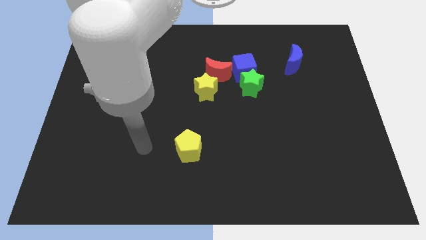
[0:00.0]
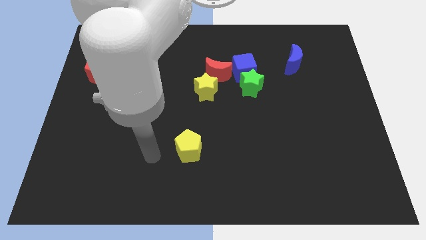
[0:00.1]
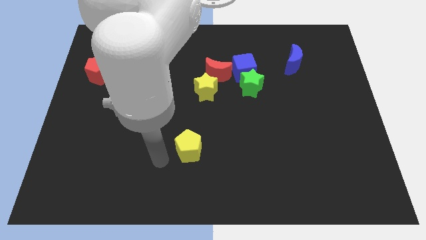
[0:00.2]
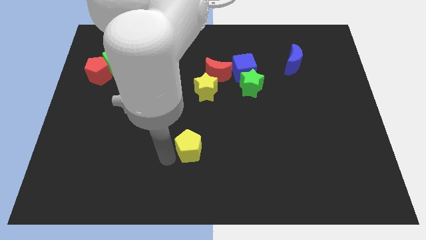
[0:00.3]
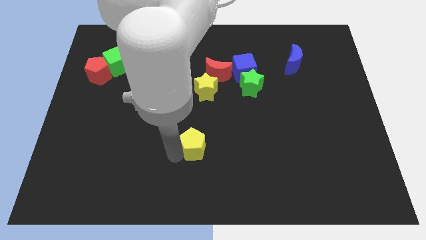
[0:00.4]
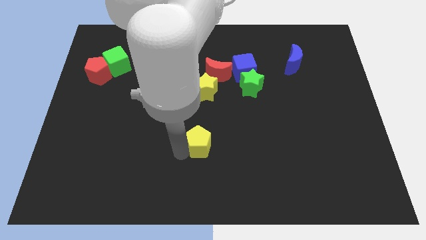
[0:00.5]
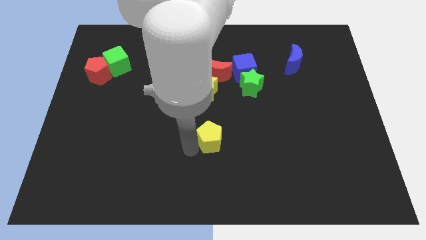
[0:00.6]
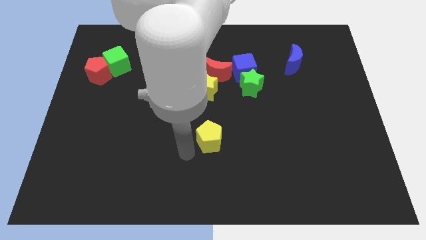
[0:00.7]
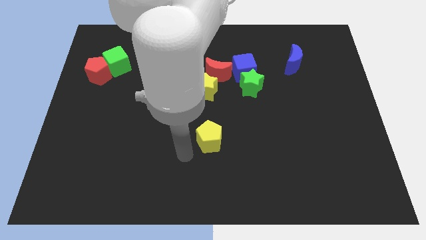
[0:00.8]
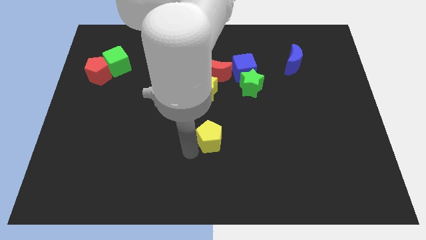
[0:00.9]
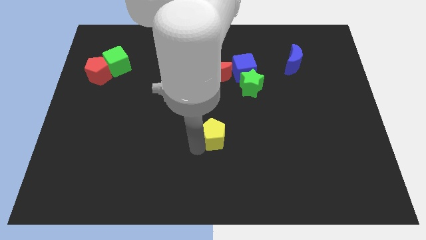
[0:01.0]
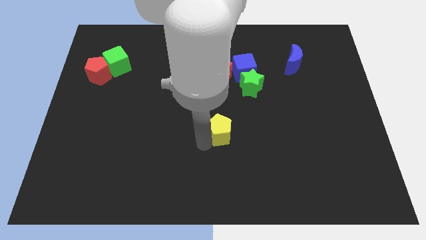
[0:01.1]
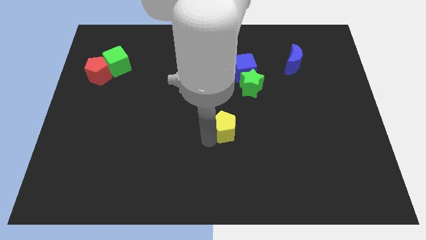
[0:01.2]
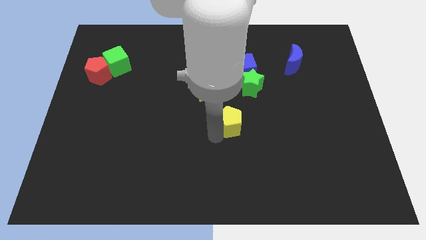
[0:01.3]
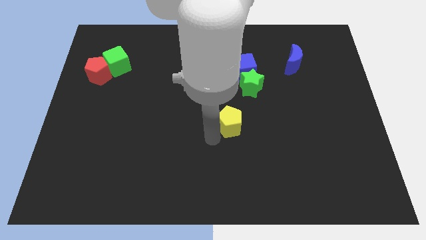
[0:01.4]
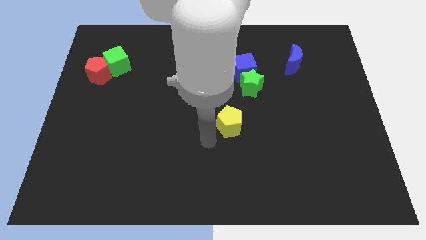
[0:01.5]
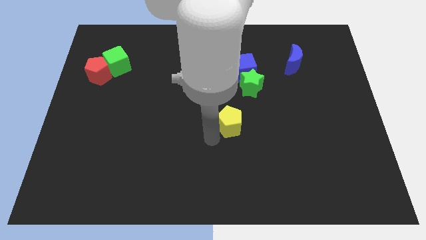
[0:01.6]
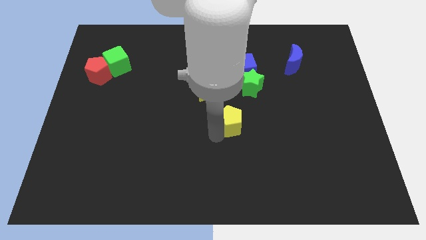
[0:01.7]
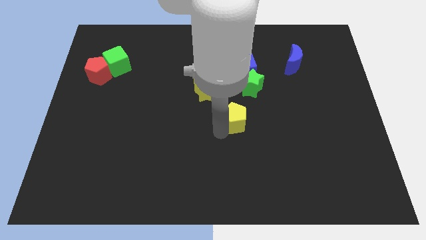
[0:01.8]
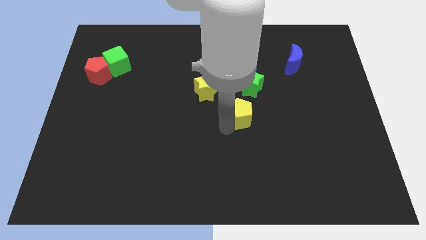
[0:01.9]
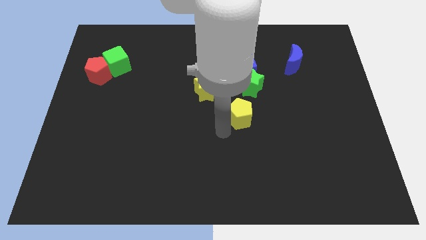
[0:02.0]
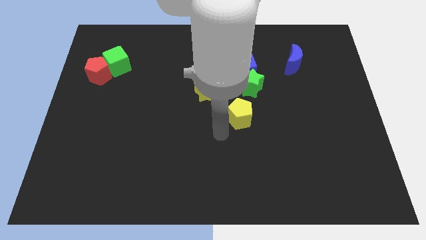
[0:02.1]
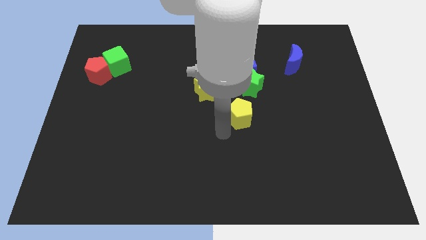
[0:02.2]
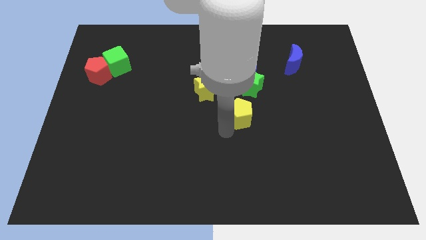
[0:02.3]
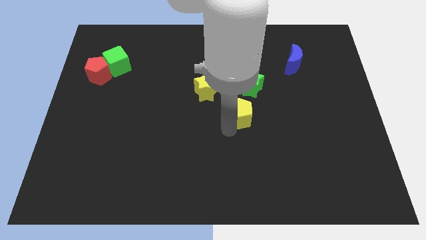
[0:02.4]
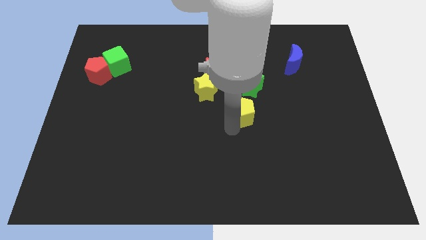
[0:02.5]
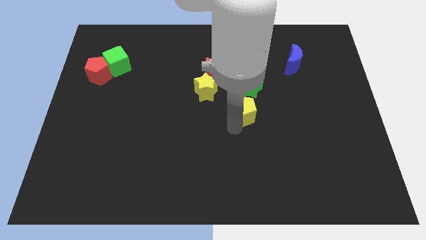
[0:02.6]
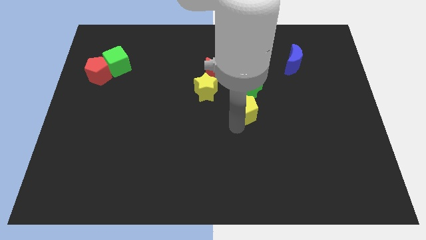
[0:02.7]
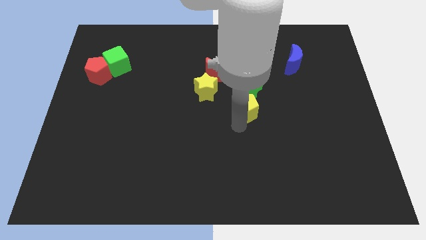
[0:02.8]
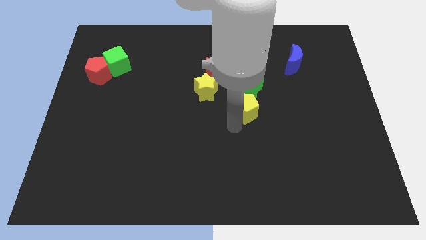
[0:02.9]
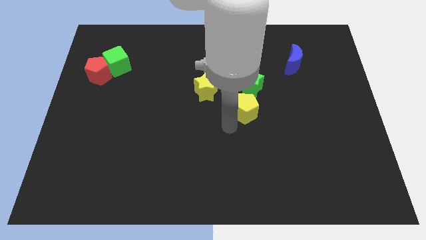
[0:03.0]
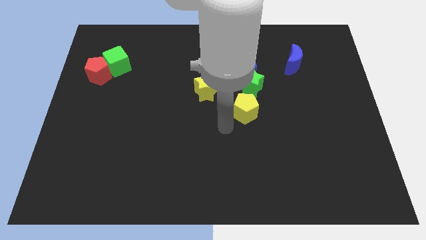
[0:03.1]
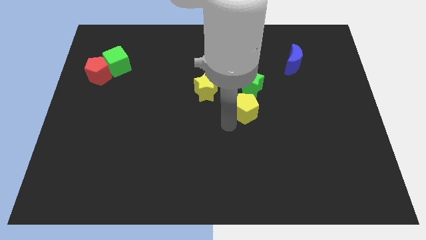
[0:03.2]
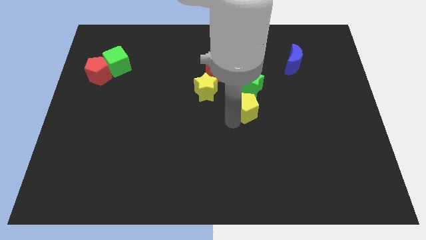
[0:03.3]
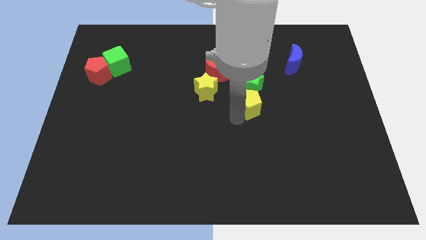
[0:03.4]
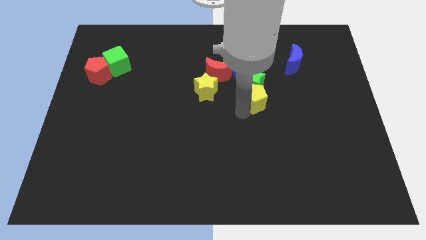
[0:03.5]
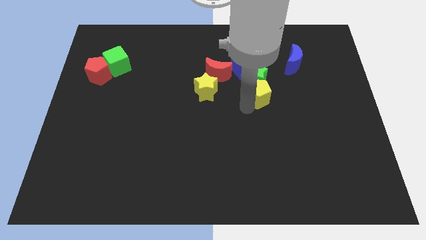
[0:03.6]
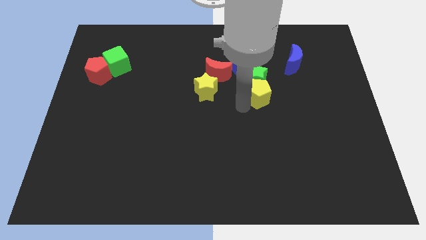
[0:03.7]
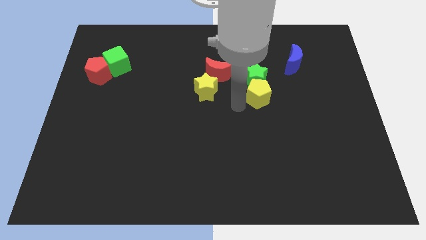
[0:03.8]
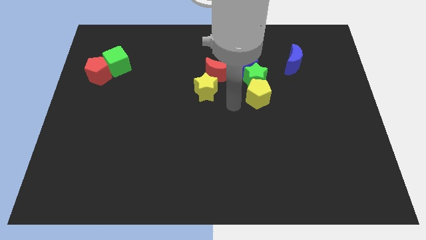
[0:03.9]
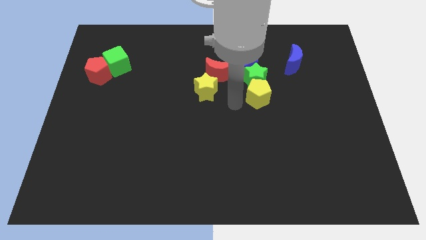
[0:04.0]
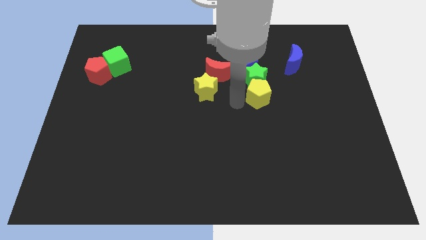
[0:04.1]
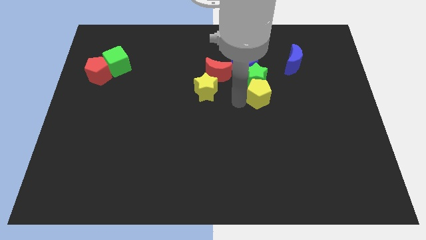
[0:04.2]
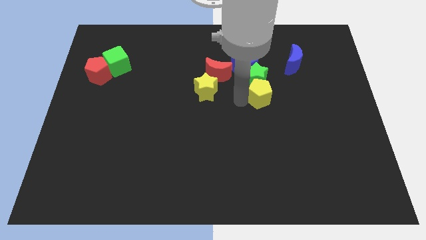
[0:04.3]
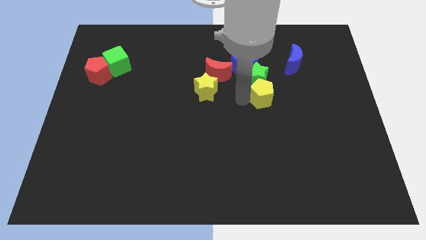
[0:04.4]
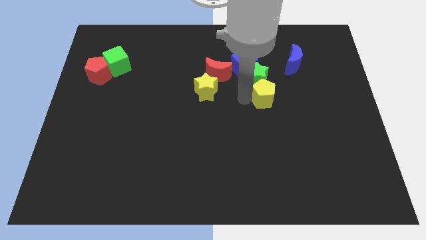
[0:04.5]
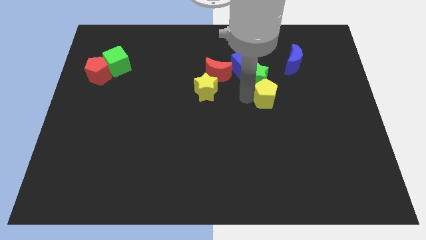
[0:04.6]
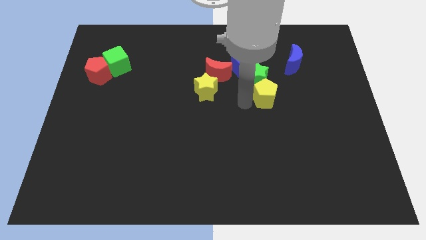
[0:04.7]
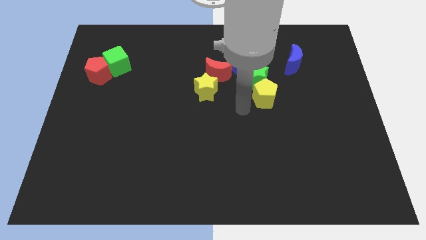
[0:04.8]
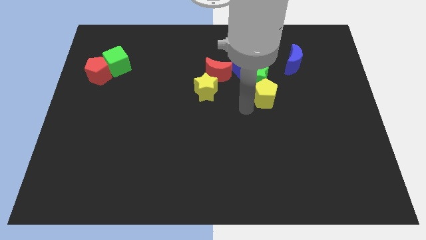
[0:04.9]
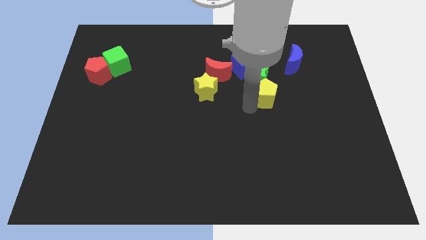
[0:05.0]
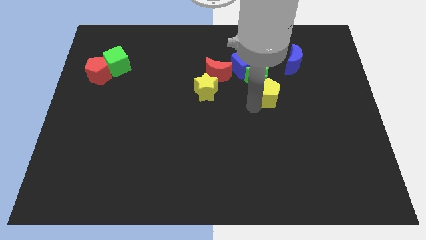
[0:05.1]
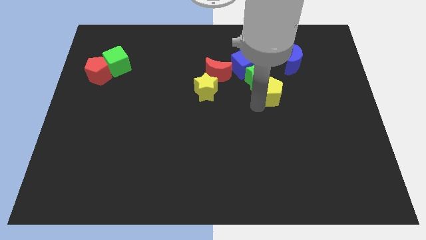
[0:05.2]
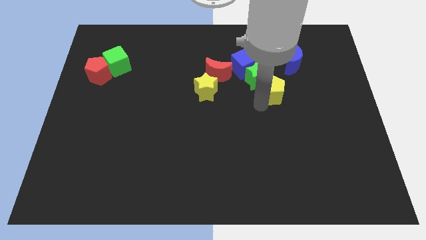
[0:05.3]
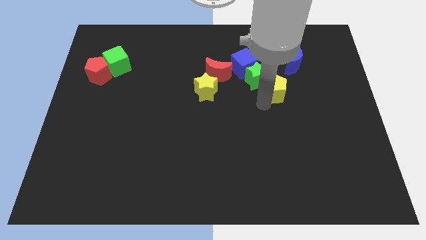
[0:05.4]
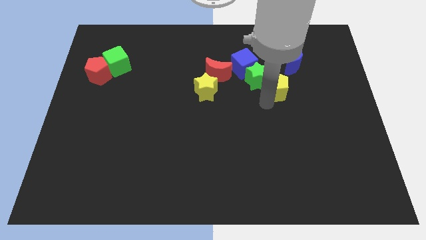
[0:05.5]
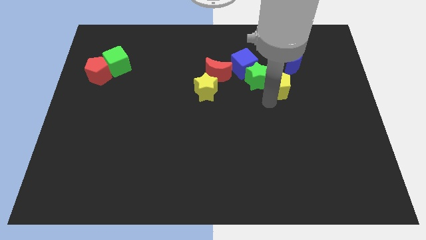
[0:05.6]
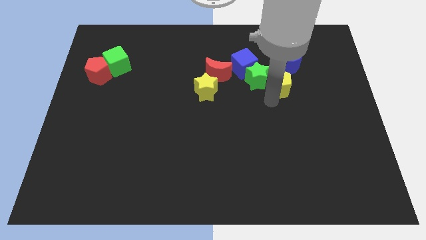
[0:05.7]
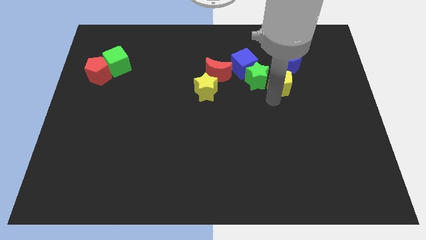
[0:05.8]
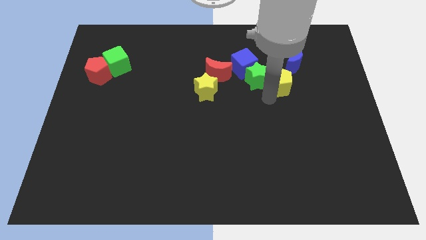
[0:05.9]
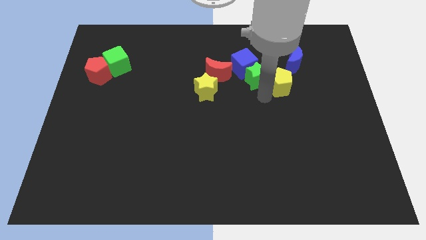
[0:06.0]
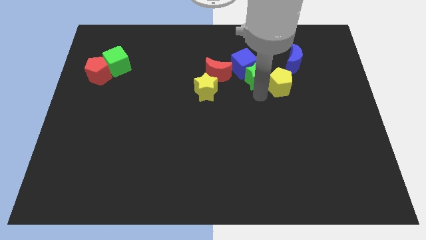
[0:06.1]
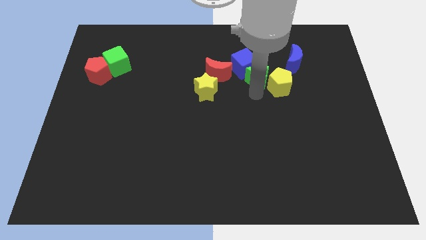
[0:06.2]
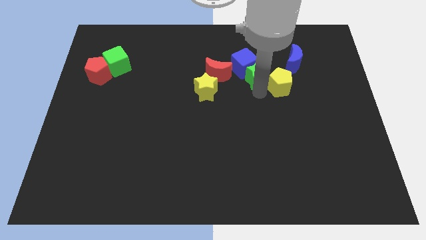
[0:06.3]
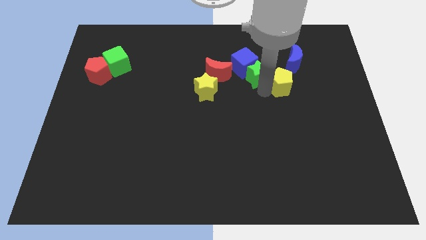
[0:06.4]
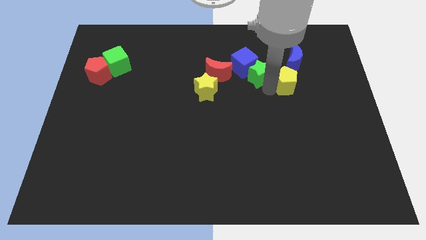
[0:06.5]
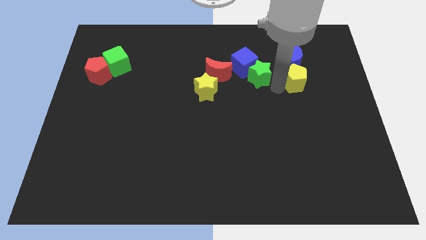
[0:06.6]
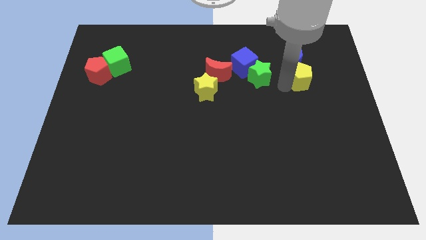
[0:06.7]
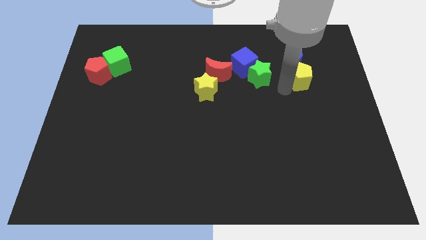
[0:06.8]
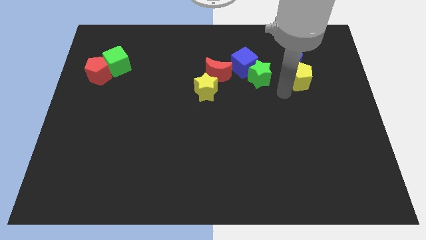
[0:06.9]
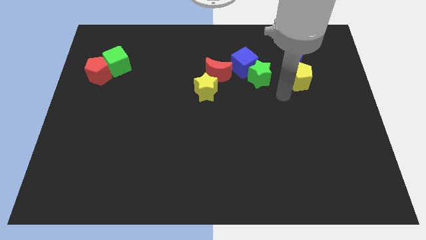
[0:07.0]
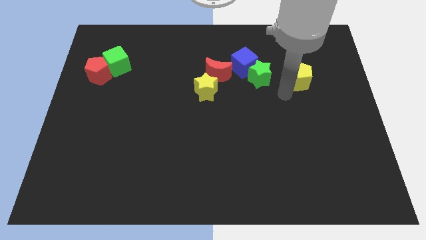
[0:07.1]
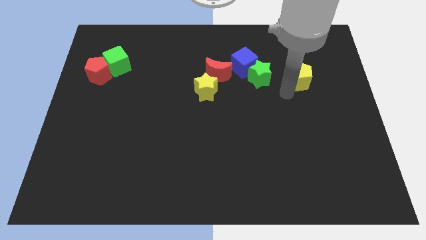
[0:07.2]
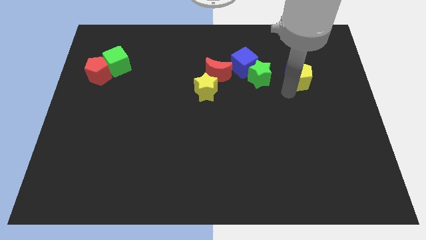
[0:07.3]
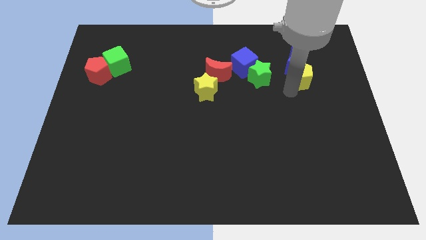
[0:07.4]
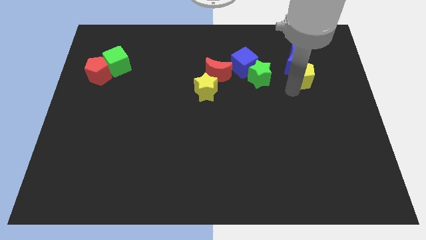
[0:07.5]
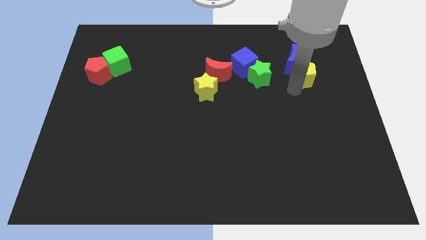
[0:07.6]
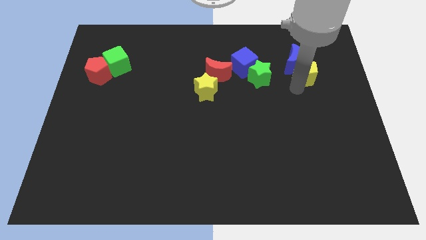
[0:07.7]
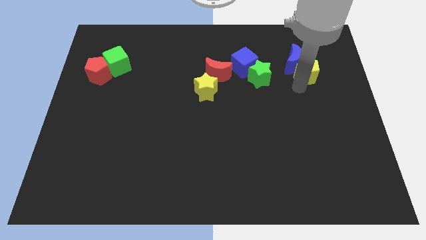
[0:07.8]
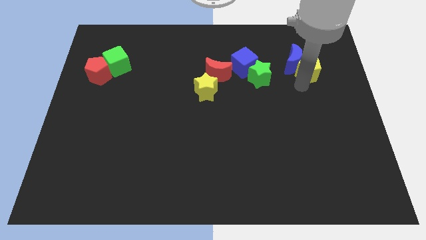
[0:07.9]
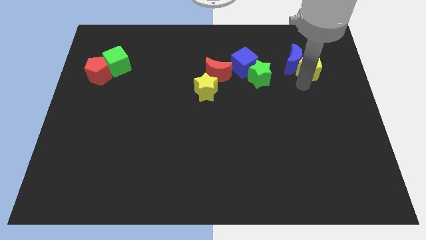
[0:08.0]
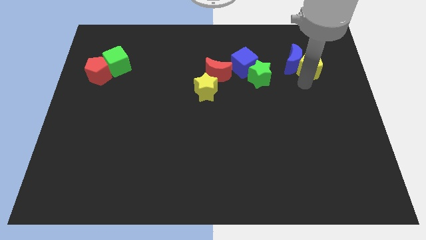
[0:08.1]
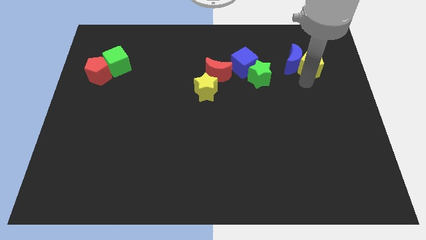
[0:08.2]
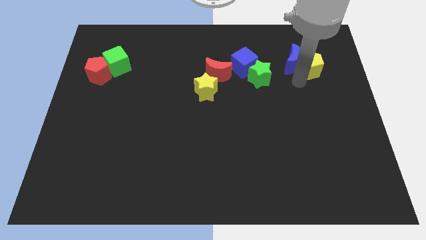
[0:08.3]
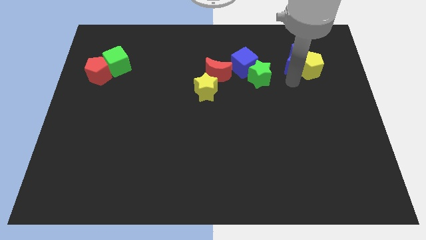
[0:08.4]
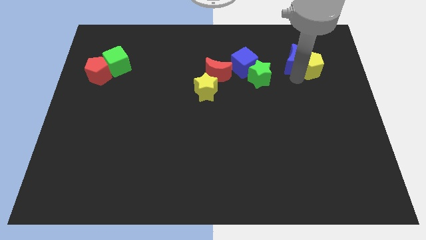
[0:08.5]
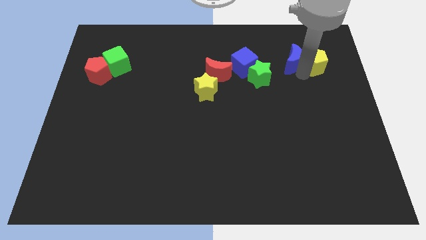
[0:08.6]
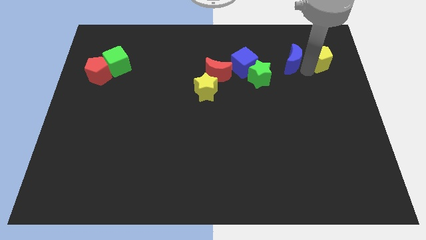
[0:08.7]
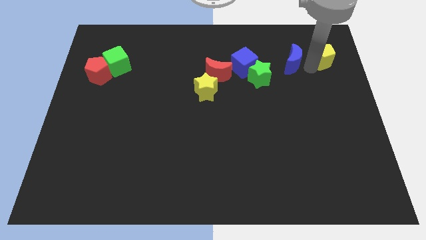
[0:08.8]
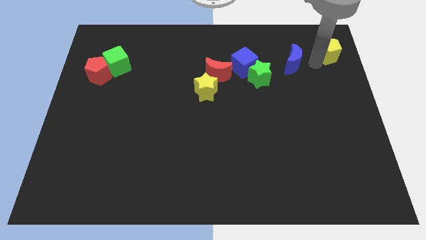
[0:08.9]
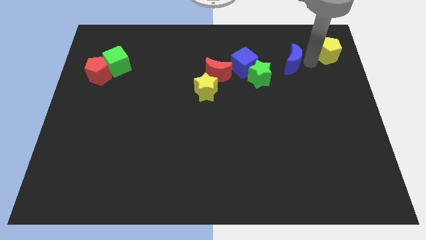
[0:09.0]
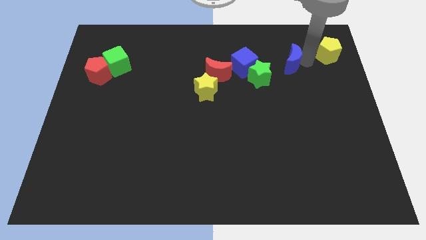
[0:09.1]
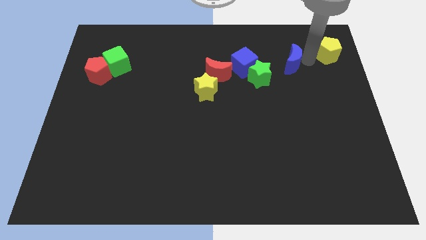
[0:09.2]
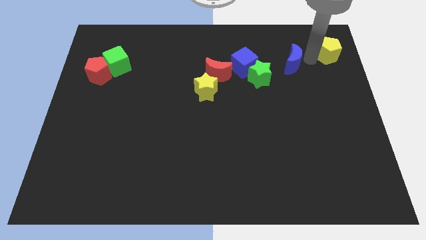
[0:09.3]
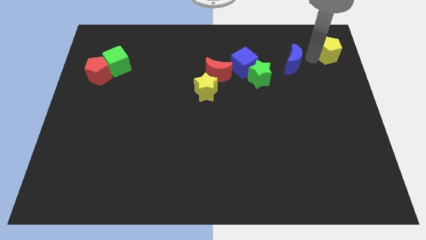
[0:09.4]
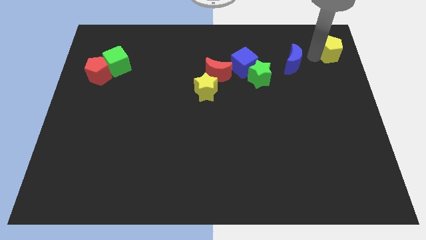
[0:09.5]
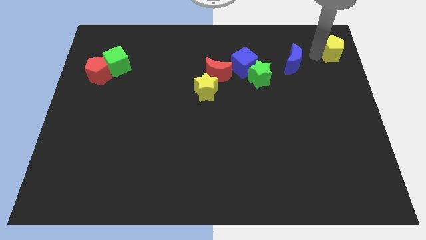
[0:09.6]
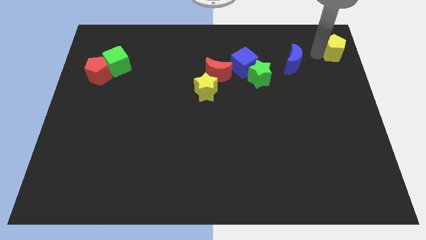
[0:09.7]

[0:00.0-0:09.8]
push the yellow pentagon to the top right of the board
